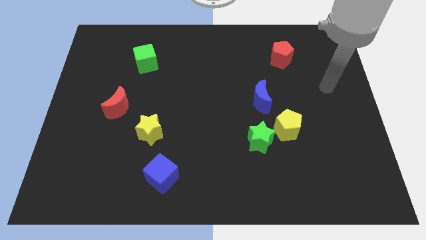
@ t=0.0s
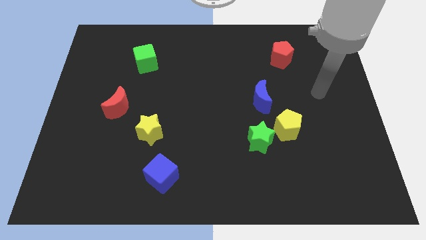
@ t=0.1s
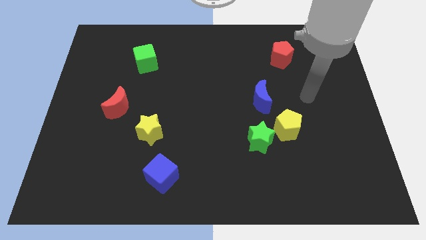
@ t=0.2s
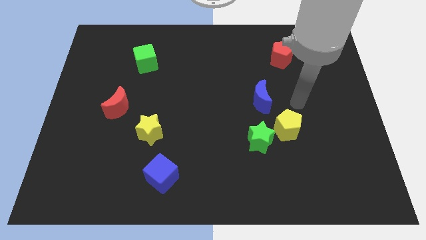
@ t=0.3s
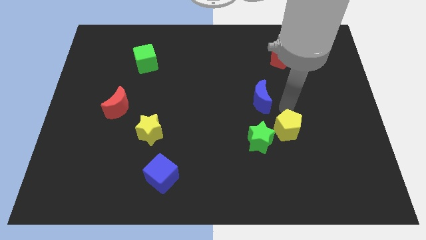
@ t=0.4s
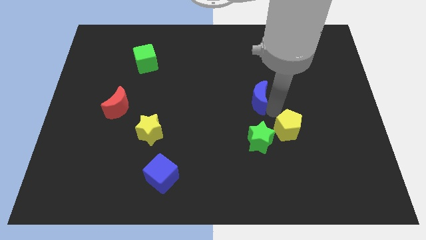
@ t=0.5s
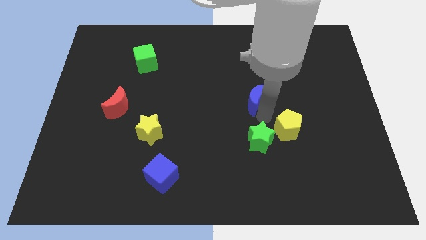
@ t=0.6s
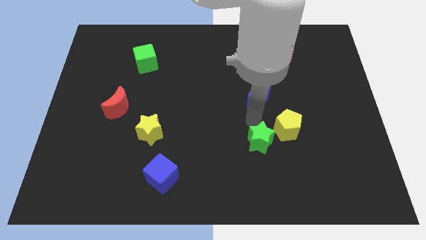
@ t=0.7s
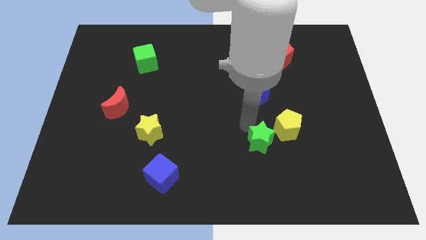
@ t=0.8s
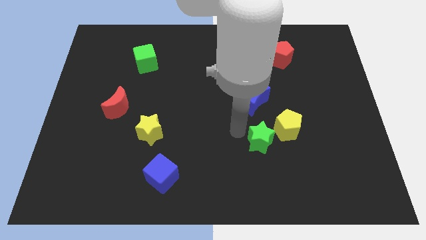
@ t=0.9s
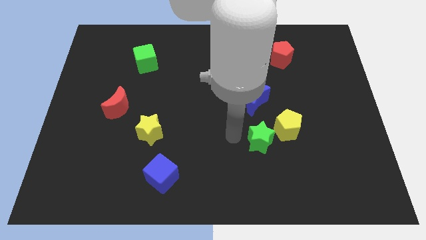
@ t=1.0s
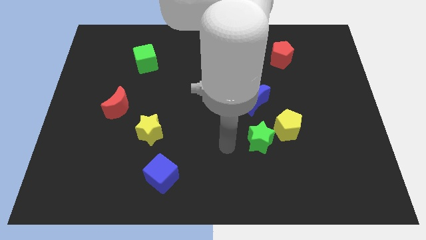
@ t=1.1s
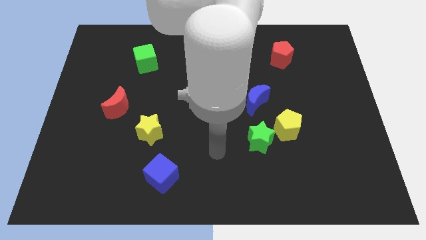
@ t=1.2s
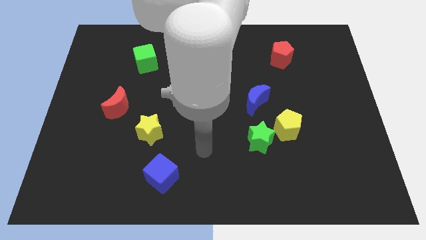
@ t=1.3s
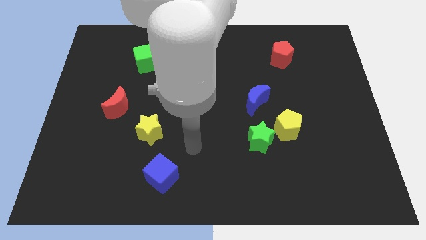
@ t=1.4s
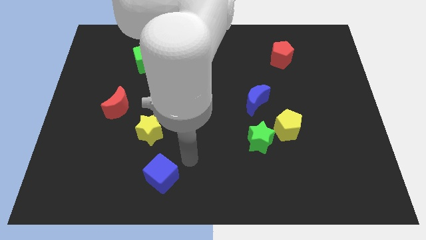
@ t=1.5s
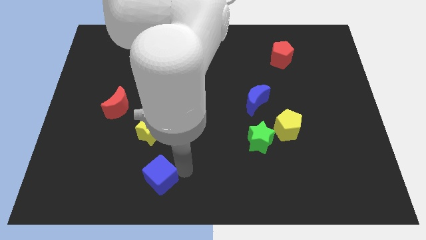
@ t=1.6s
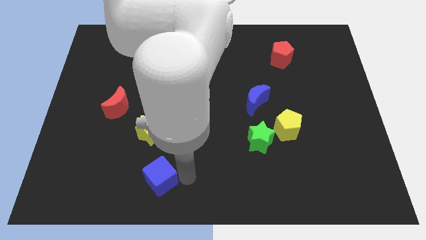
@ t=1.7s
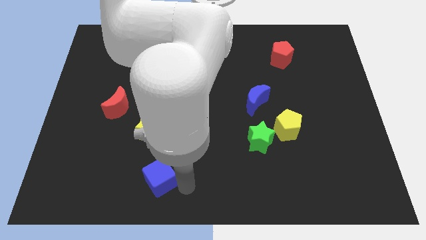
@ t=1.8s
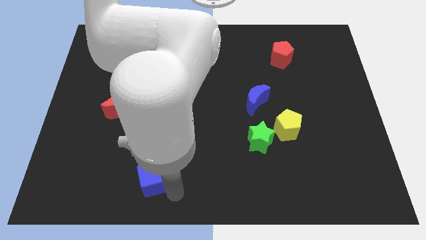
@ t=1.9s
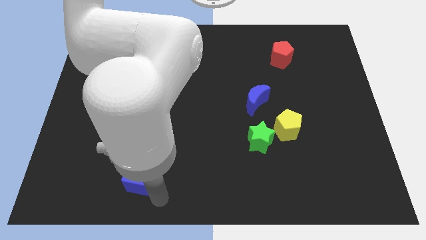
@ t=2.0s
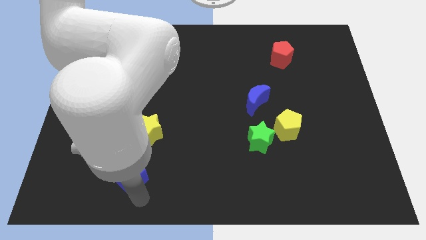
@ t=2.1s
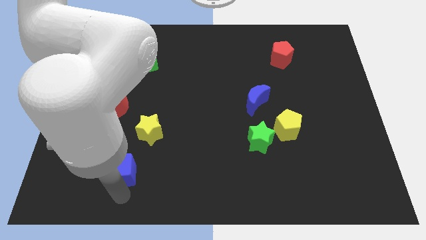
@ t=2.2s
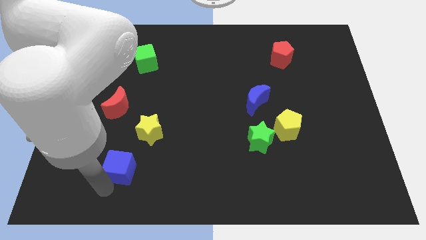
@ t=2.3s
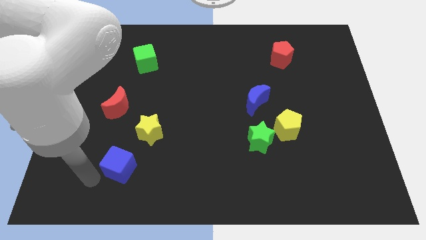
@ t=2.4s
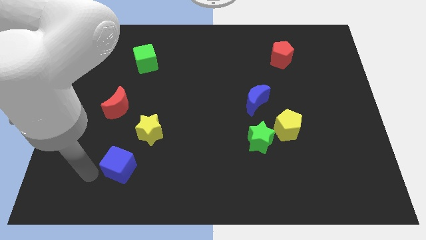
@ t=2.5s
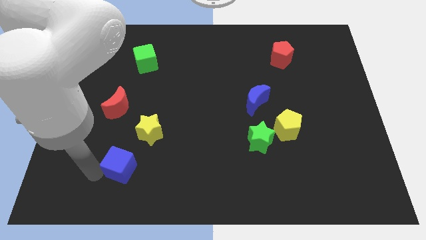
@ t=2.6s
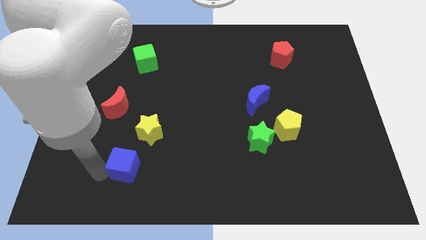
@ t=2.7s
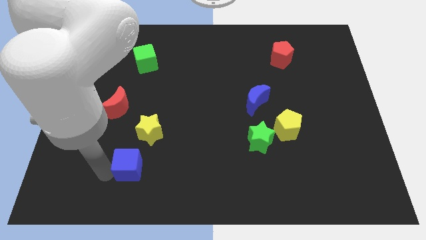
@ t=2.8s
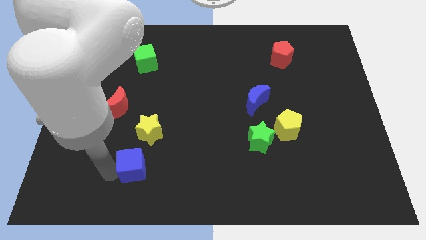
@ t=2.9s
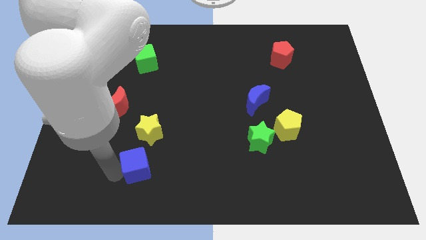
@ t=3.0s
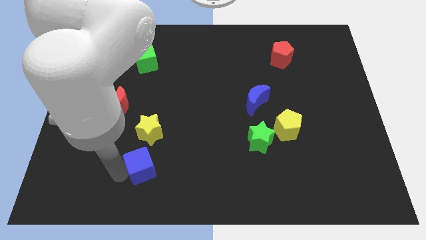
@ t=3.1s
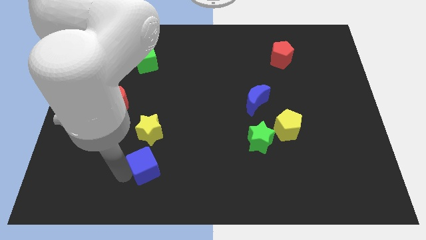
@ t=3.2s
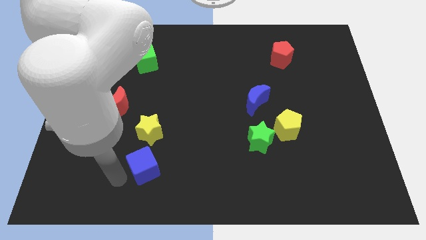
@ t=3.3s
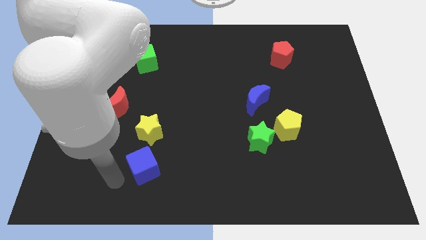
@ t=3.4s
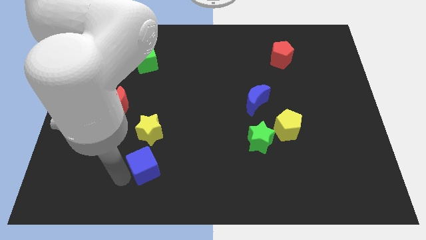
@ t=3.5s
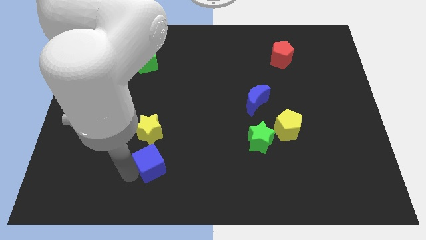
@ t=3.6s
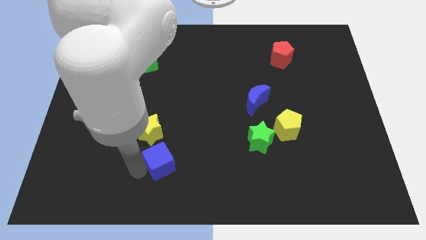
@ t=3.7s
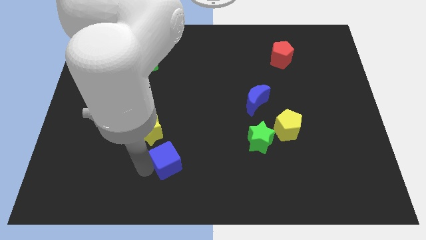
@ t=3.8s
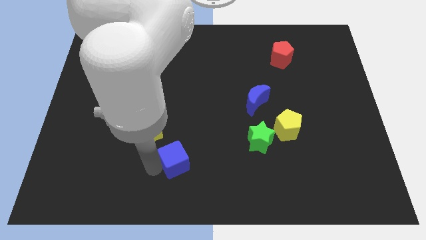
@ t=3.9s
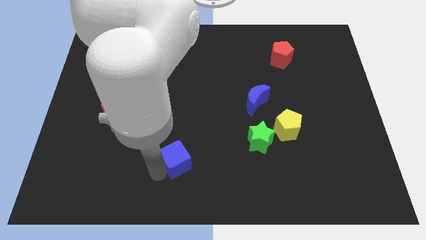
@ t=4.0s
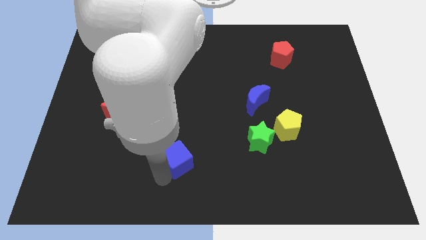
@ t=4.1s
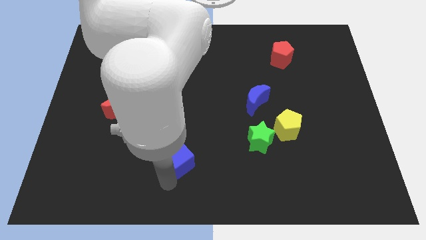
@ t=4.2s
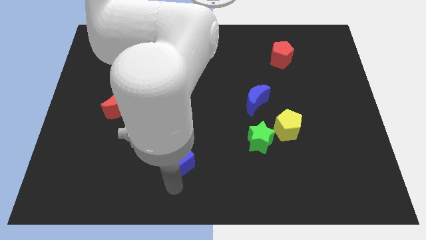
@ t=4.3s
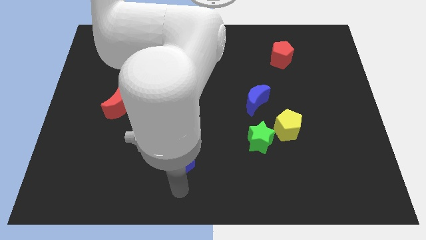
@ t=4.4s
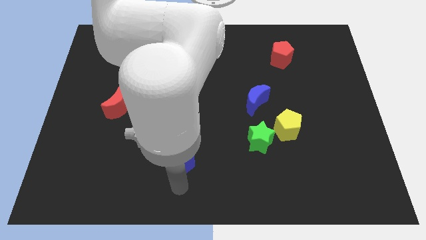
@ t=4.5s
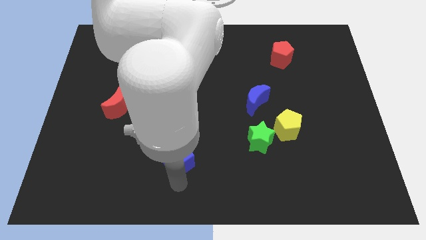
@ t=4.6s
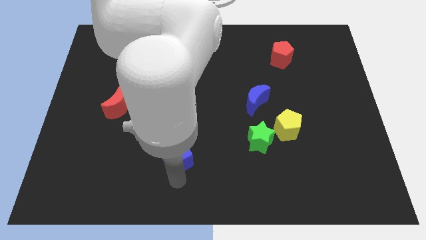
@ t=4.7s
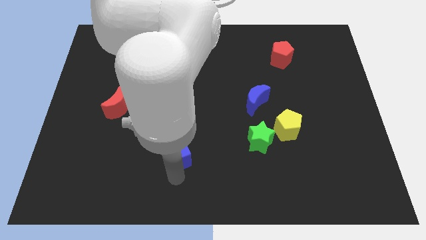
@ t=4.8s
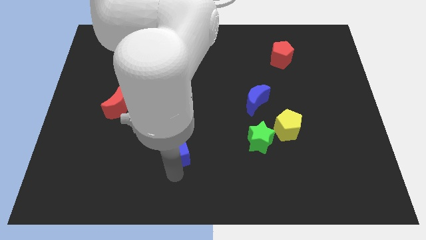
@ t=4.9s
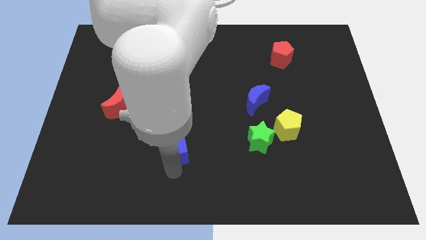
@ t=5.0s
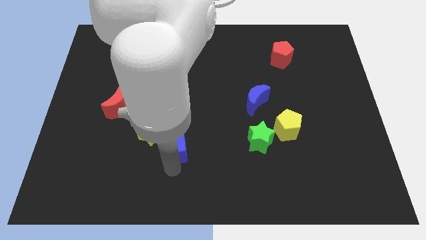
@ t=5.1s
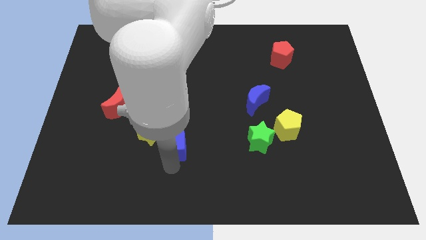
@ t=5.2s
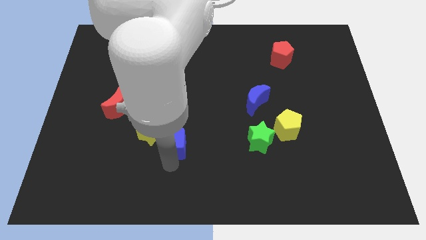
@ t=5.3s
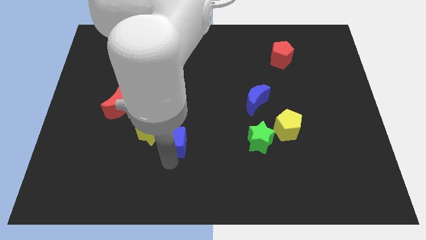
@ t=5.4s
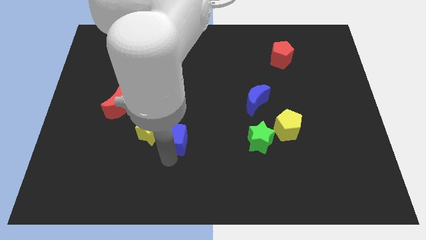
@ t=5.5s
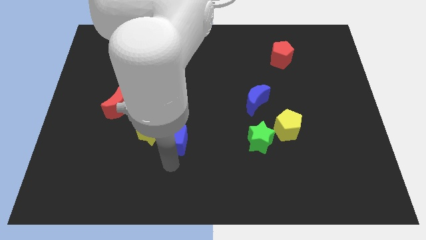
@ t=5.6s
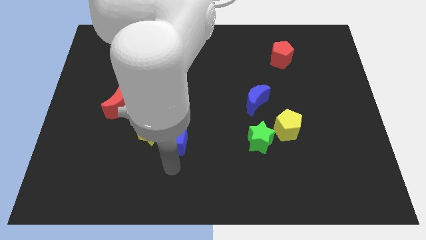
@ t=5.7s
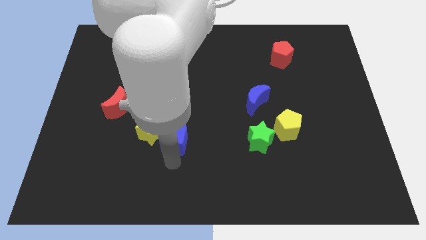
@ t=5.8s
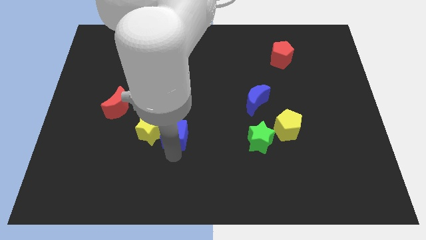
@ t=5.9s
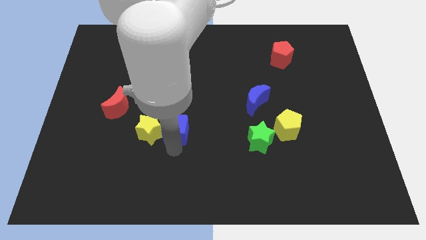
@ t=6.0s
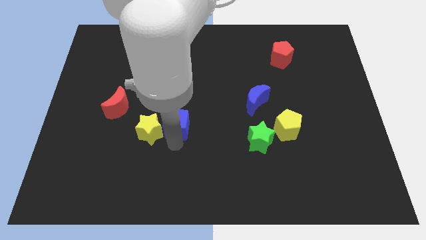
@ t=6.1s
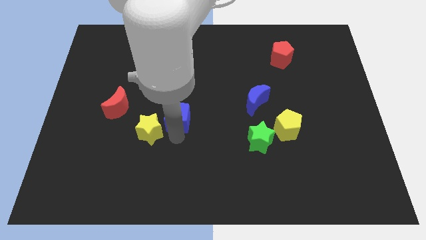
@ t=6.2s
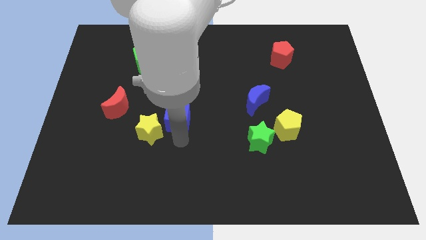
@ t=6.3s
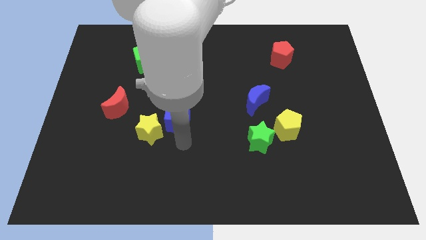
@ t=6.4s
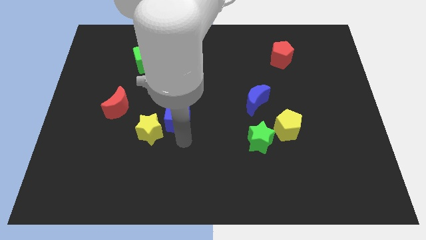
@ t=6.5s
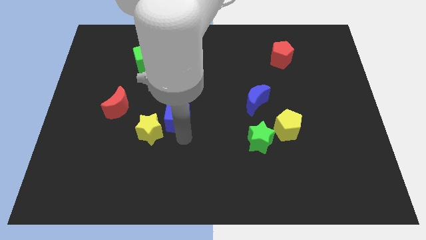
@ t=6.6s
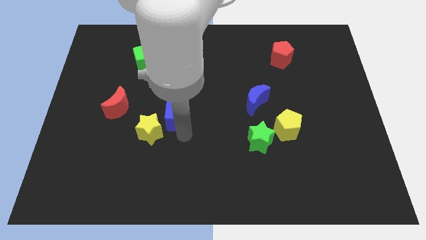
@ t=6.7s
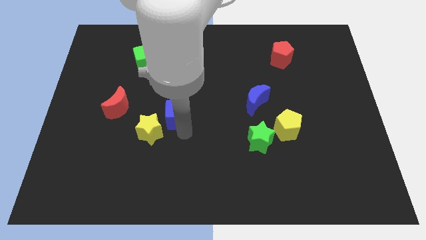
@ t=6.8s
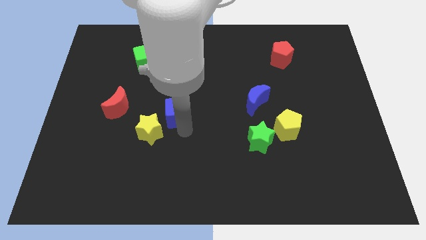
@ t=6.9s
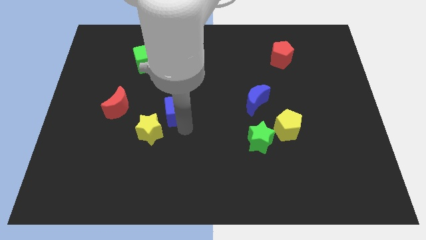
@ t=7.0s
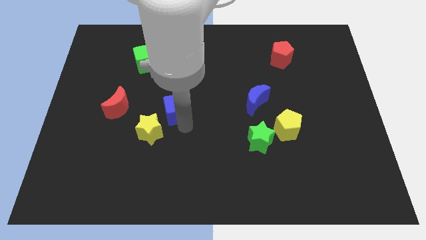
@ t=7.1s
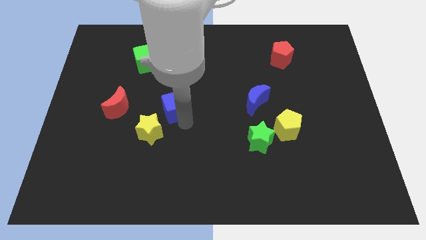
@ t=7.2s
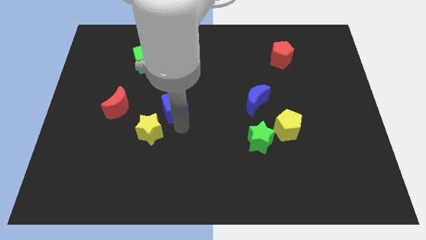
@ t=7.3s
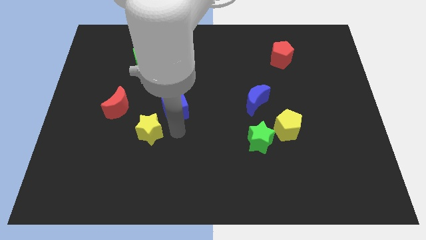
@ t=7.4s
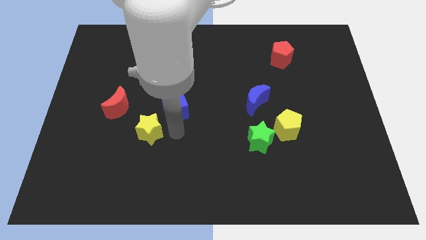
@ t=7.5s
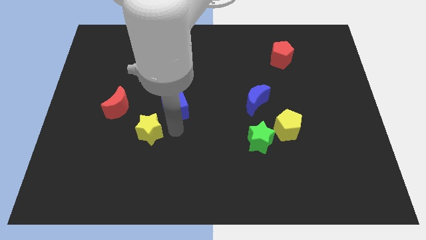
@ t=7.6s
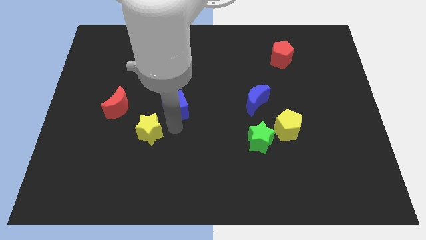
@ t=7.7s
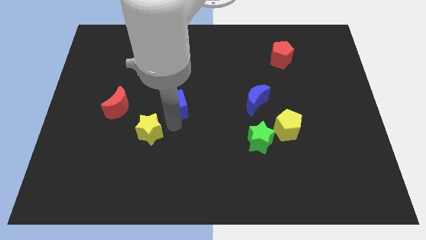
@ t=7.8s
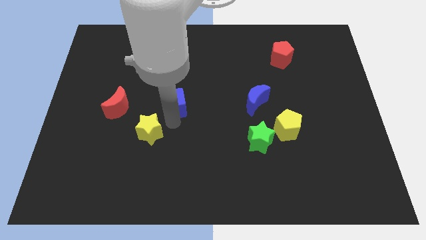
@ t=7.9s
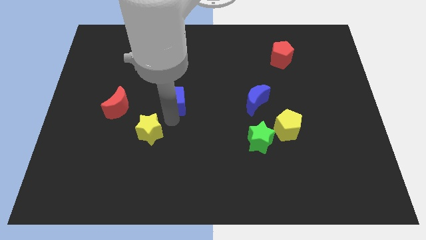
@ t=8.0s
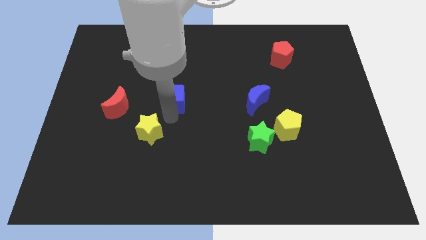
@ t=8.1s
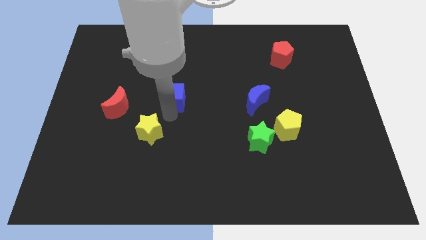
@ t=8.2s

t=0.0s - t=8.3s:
move the blue cube upwards

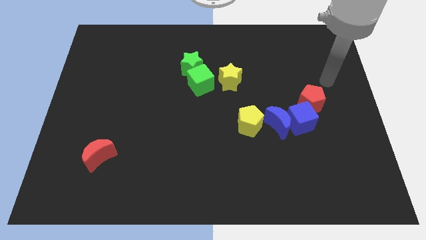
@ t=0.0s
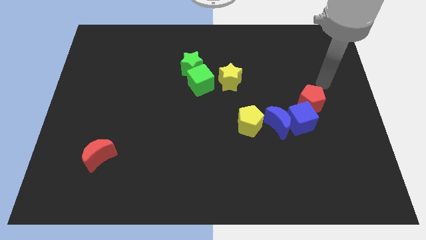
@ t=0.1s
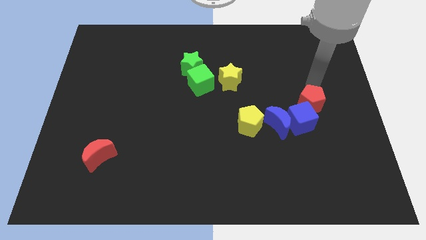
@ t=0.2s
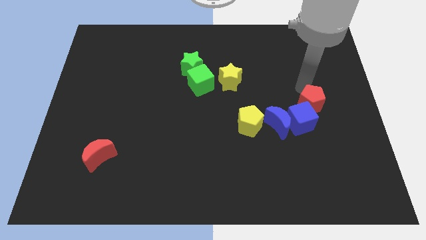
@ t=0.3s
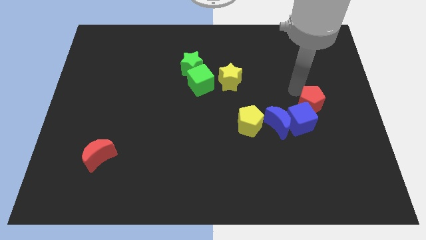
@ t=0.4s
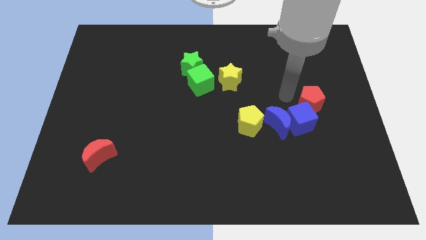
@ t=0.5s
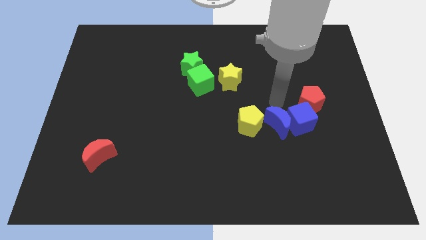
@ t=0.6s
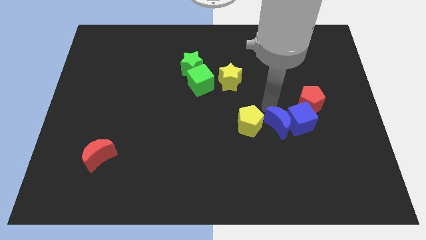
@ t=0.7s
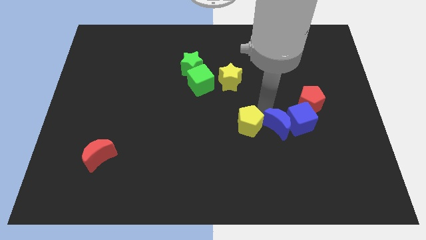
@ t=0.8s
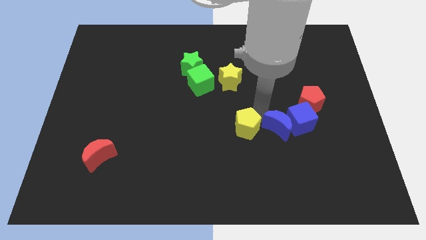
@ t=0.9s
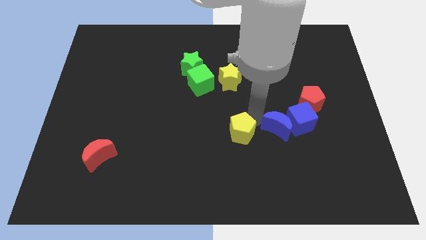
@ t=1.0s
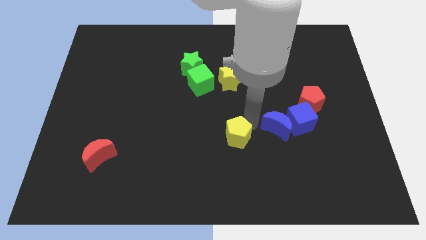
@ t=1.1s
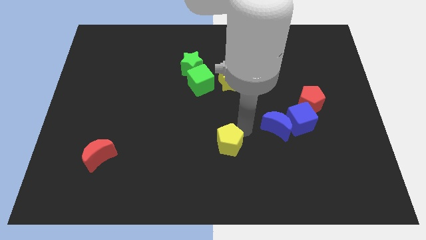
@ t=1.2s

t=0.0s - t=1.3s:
slightly push the yellow pentagon diagonally down and left
